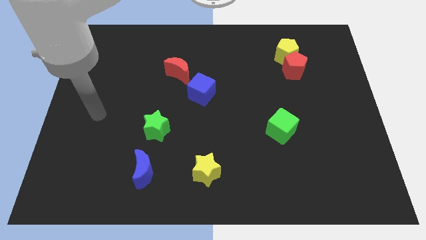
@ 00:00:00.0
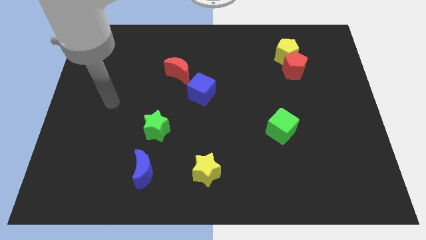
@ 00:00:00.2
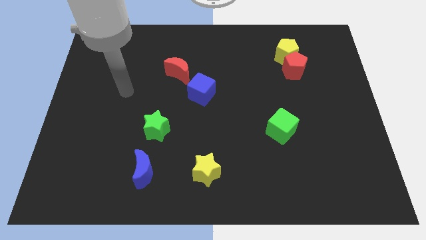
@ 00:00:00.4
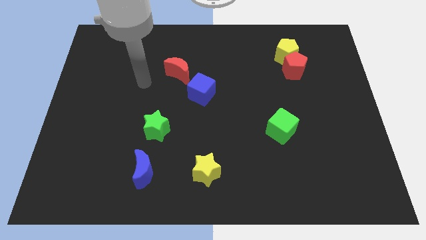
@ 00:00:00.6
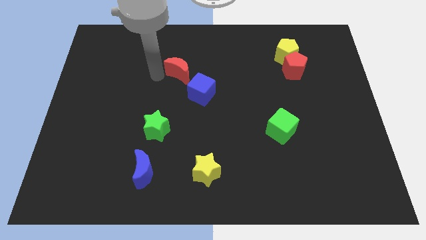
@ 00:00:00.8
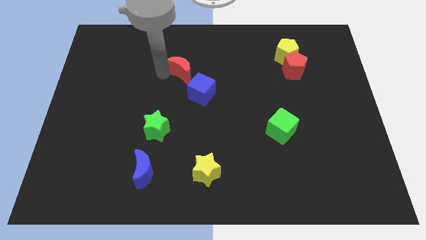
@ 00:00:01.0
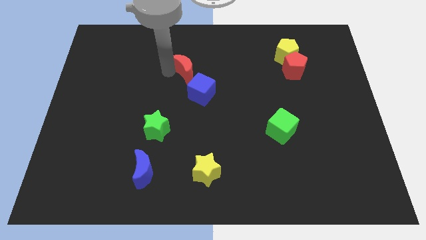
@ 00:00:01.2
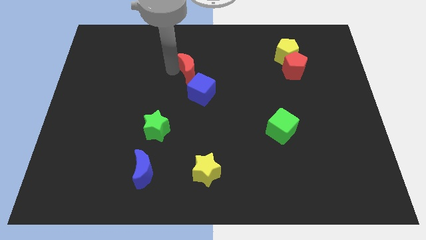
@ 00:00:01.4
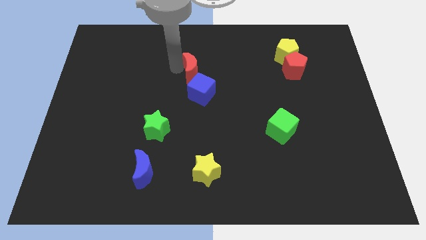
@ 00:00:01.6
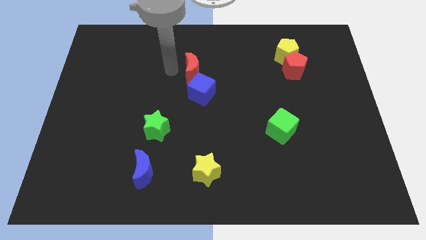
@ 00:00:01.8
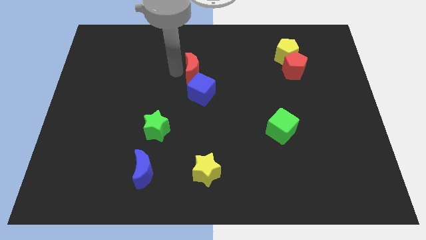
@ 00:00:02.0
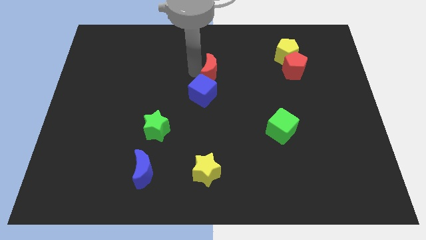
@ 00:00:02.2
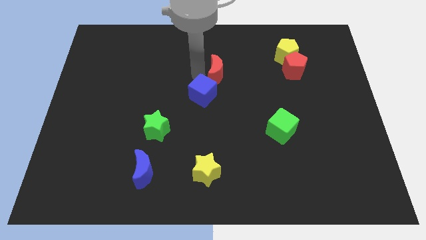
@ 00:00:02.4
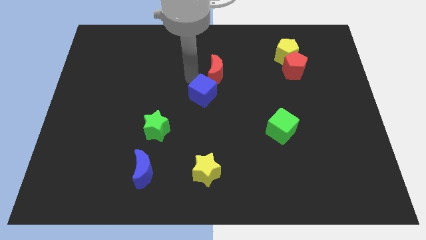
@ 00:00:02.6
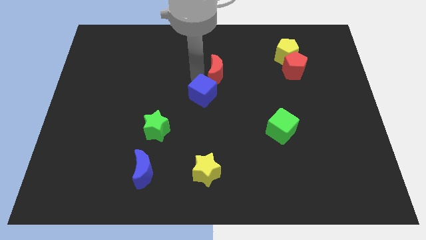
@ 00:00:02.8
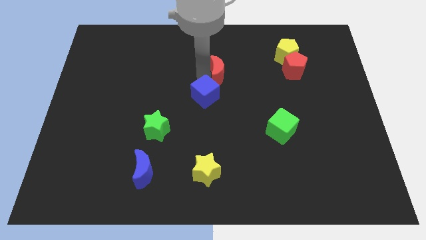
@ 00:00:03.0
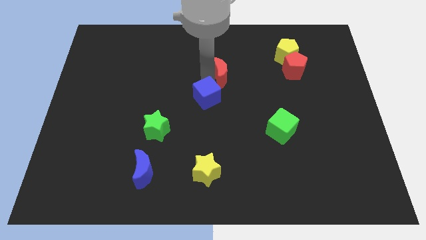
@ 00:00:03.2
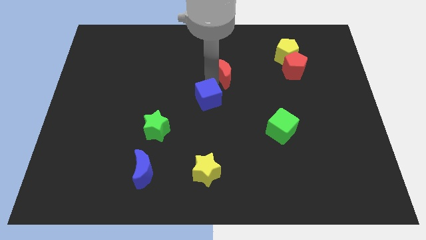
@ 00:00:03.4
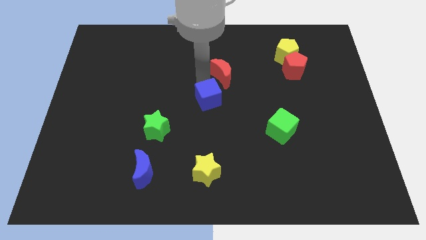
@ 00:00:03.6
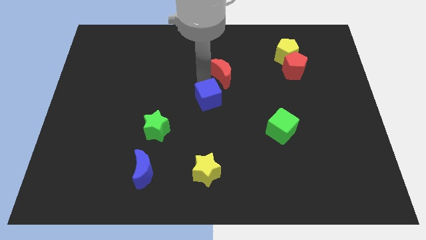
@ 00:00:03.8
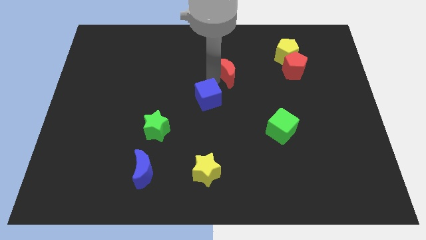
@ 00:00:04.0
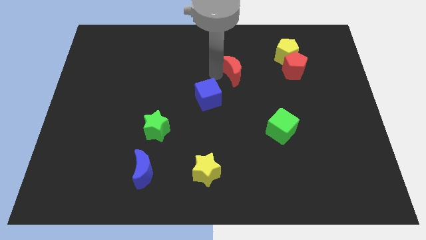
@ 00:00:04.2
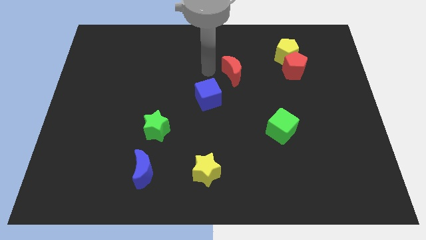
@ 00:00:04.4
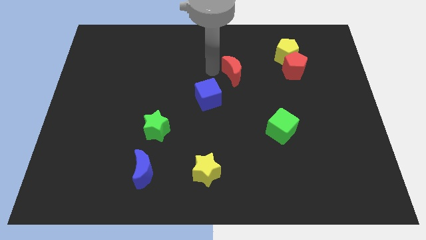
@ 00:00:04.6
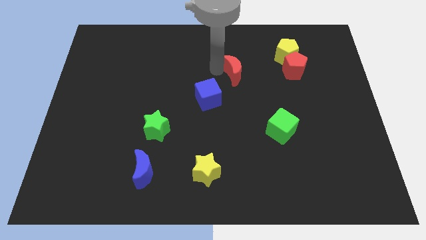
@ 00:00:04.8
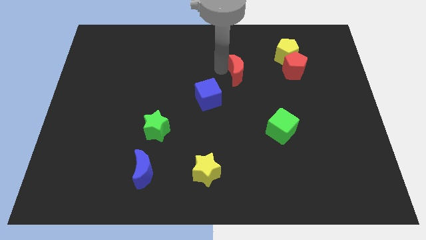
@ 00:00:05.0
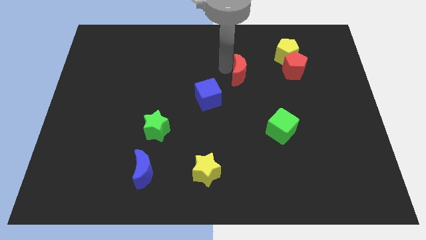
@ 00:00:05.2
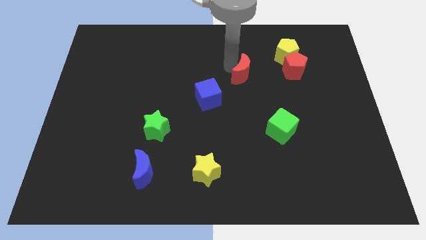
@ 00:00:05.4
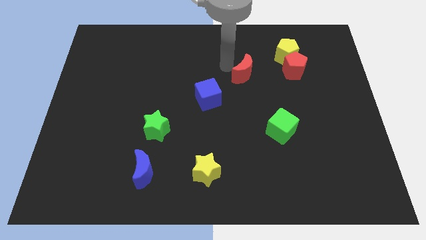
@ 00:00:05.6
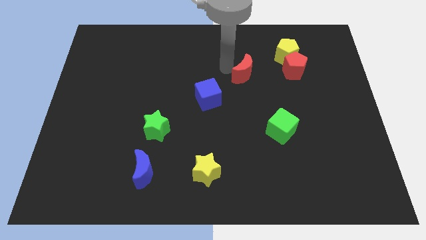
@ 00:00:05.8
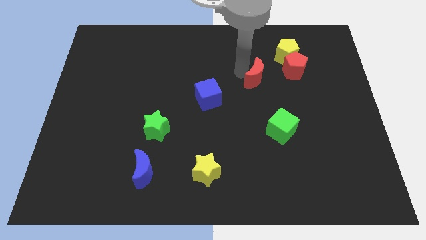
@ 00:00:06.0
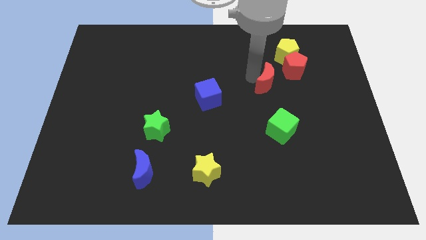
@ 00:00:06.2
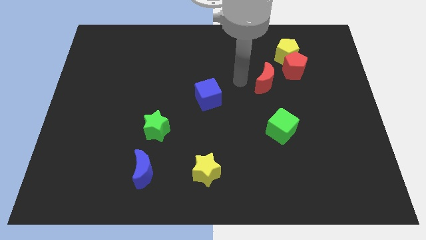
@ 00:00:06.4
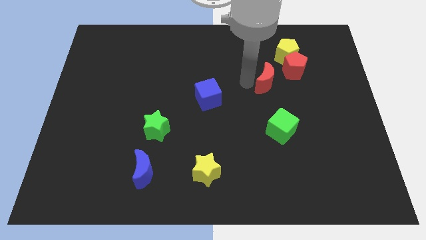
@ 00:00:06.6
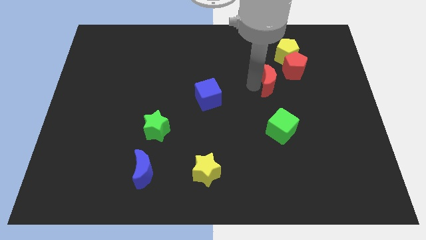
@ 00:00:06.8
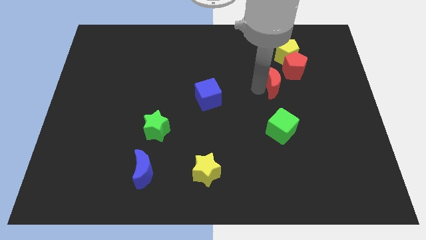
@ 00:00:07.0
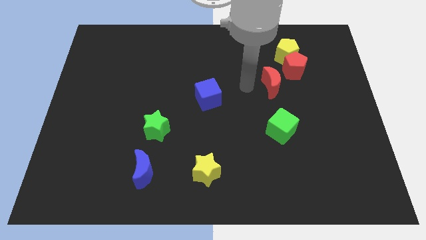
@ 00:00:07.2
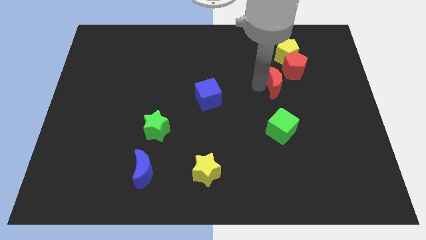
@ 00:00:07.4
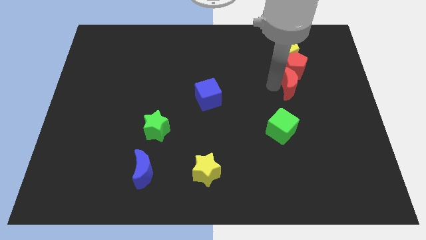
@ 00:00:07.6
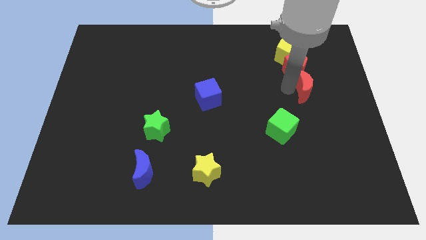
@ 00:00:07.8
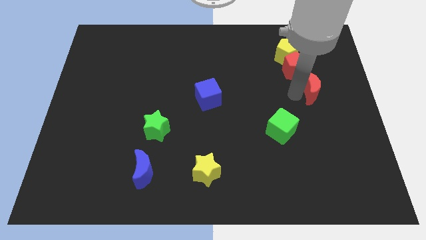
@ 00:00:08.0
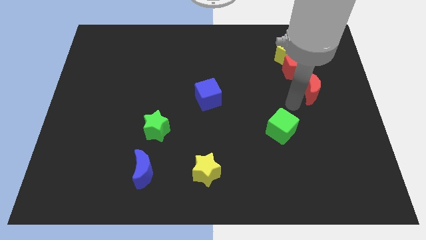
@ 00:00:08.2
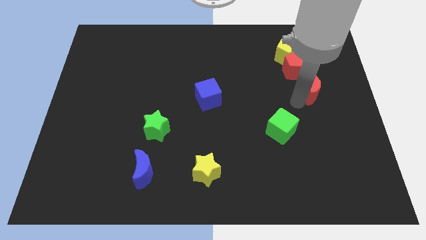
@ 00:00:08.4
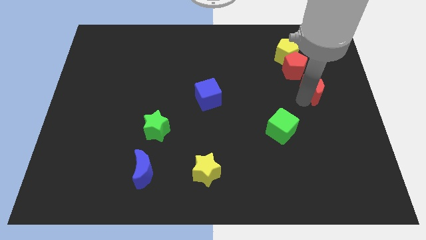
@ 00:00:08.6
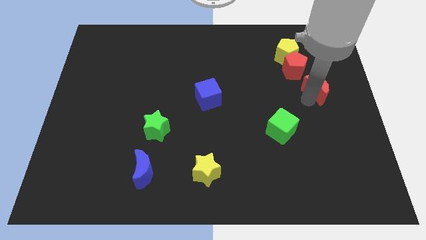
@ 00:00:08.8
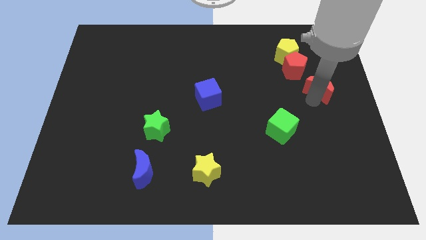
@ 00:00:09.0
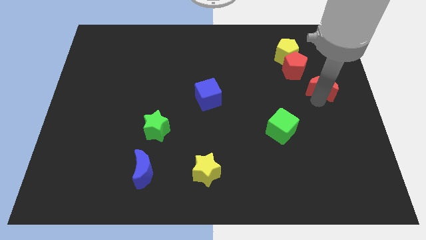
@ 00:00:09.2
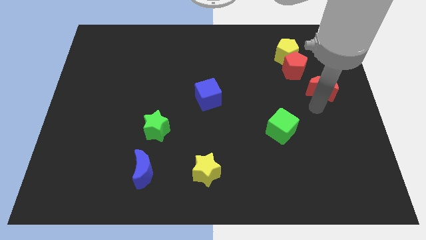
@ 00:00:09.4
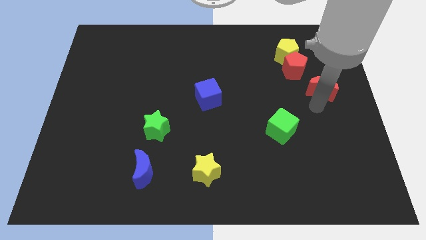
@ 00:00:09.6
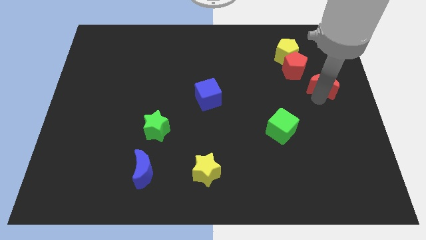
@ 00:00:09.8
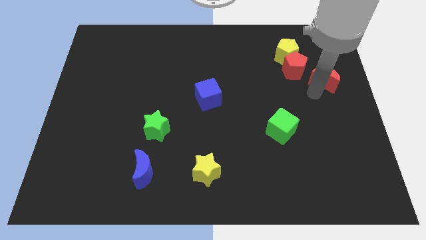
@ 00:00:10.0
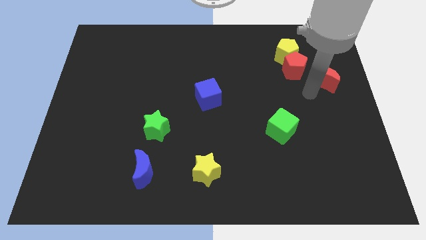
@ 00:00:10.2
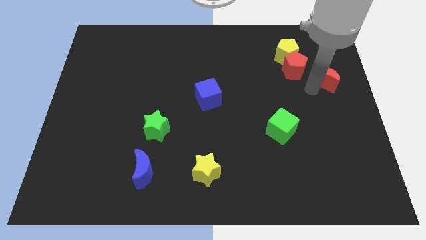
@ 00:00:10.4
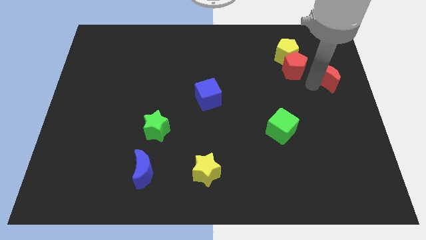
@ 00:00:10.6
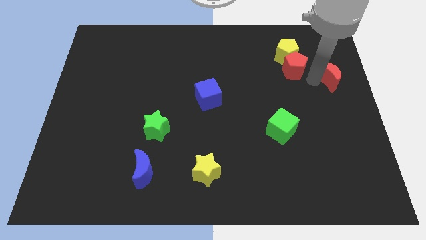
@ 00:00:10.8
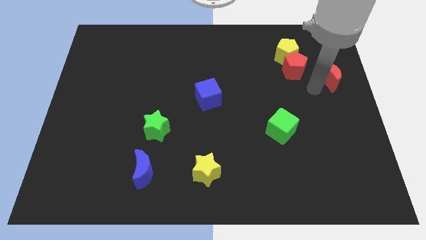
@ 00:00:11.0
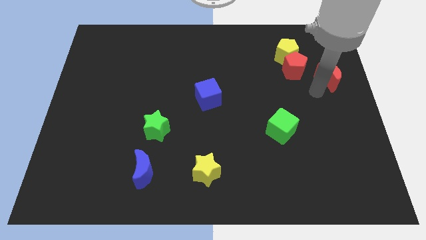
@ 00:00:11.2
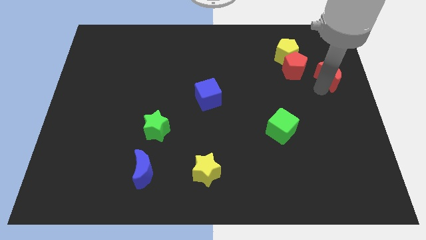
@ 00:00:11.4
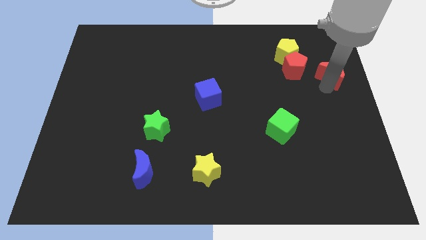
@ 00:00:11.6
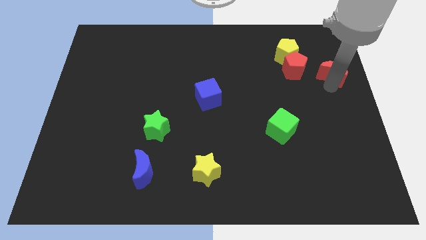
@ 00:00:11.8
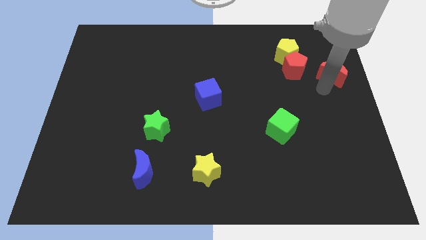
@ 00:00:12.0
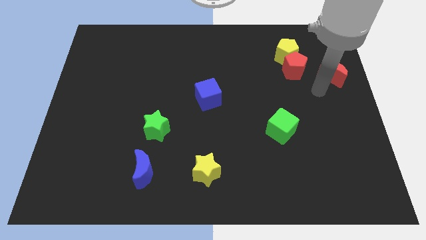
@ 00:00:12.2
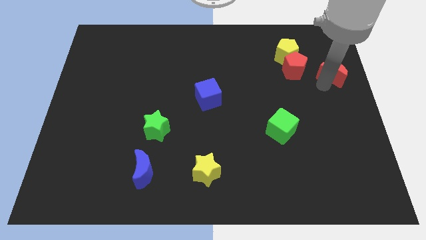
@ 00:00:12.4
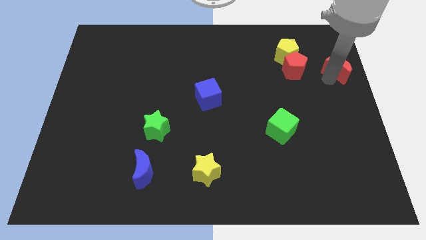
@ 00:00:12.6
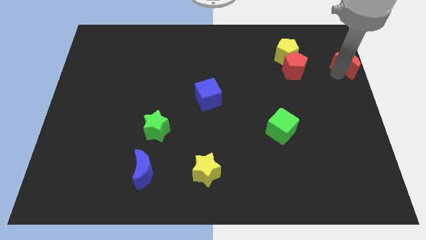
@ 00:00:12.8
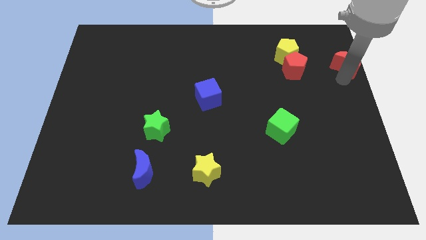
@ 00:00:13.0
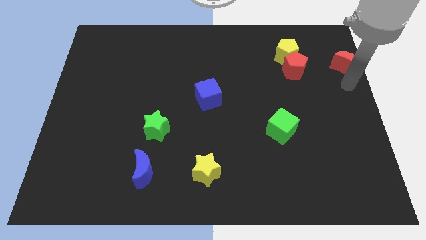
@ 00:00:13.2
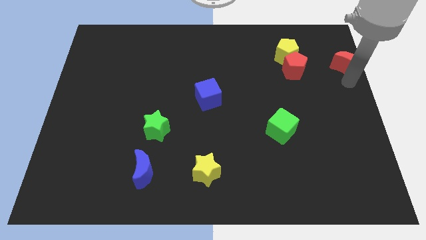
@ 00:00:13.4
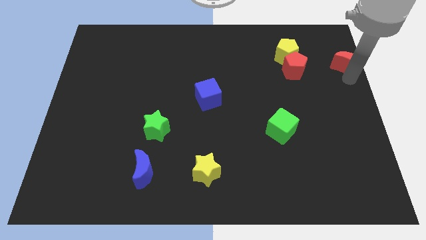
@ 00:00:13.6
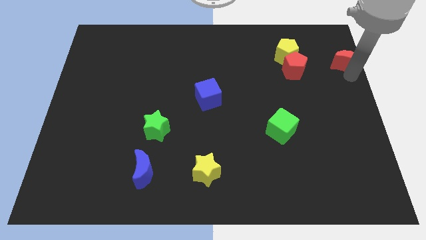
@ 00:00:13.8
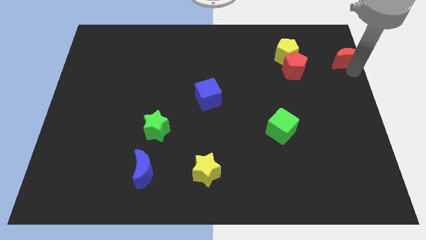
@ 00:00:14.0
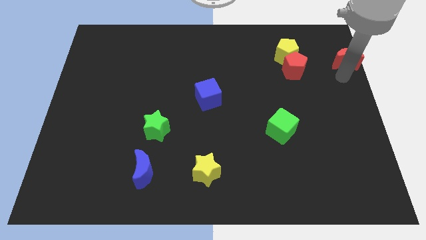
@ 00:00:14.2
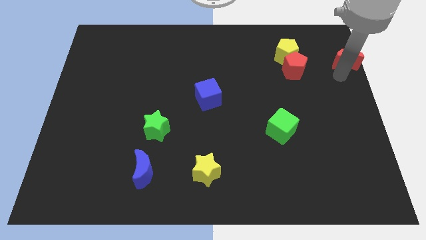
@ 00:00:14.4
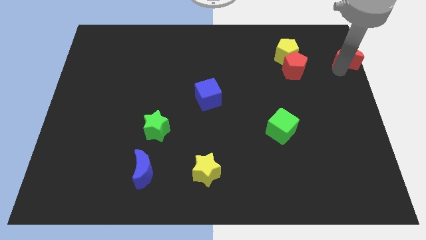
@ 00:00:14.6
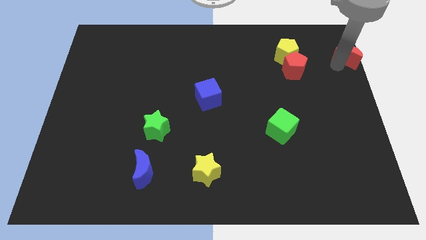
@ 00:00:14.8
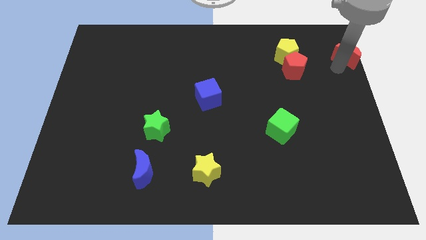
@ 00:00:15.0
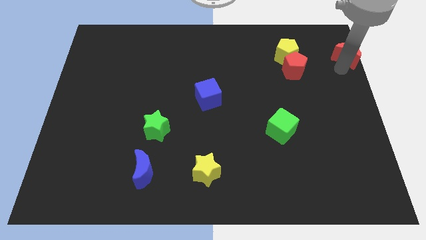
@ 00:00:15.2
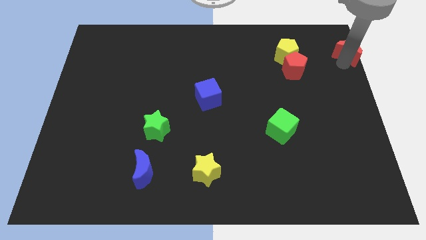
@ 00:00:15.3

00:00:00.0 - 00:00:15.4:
push the red moon to the top right corner
